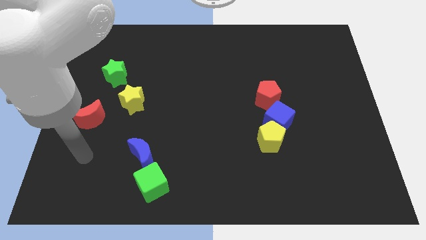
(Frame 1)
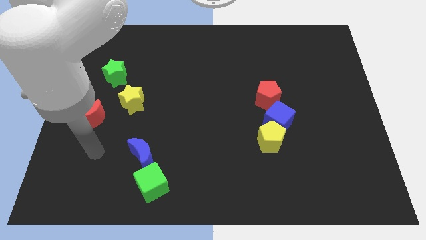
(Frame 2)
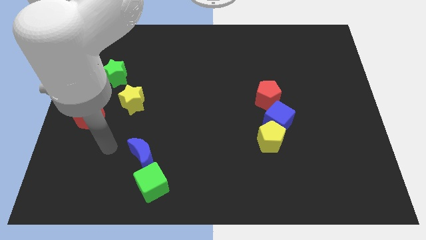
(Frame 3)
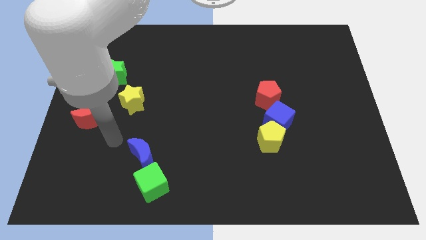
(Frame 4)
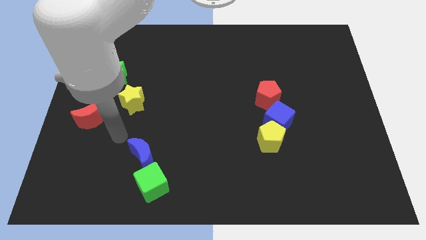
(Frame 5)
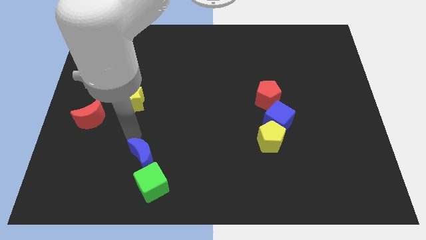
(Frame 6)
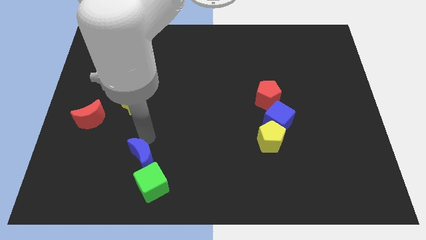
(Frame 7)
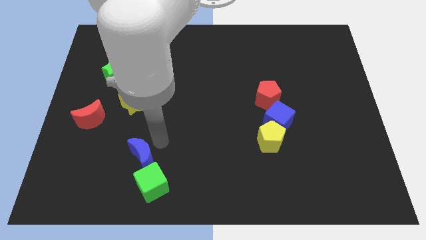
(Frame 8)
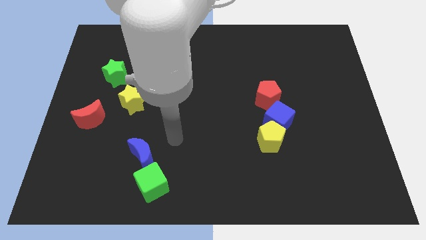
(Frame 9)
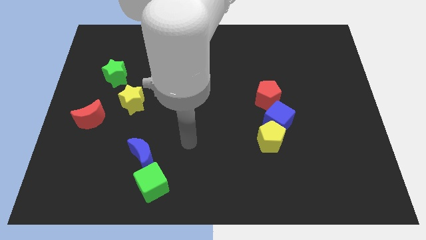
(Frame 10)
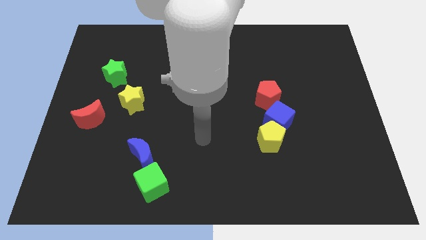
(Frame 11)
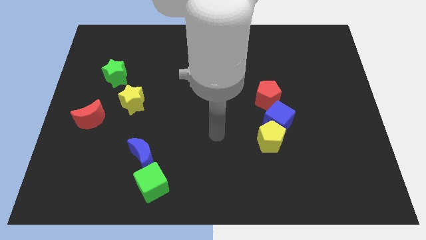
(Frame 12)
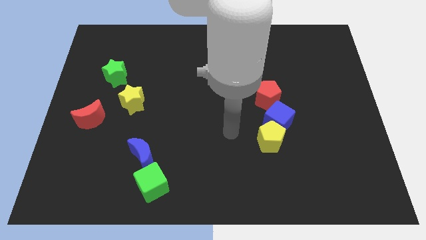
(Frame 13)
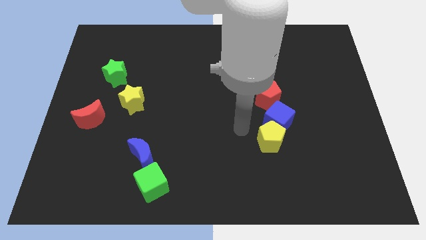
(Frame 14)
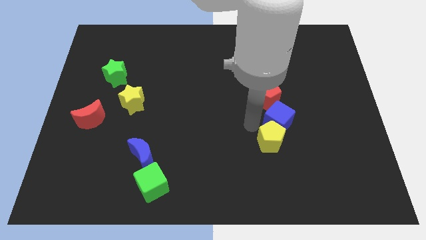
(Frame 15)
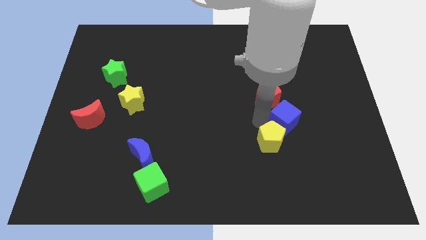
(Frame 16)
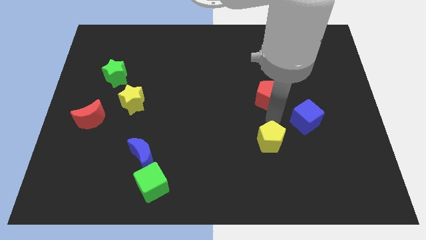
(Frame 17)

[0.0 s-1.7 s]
separate the yellow pentagon from the blue cube

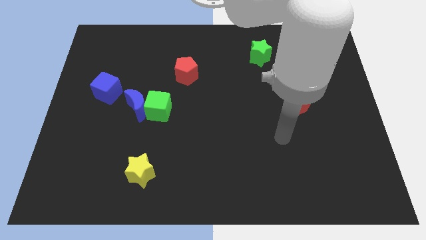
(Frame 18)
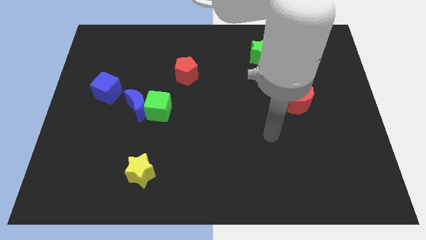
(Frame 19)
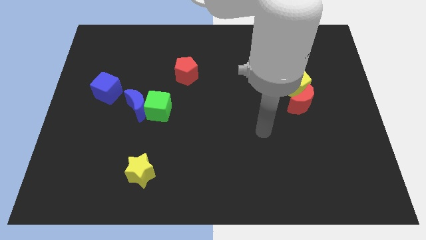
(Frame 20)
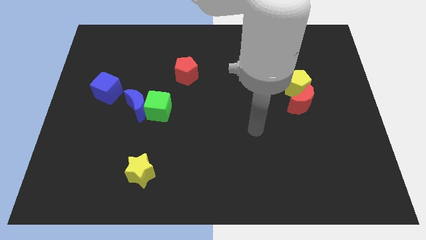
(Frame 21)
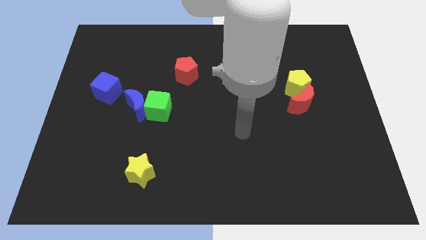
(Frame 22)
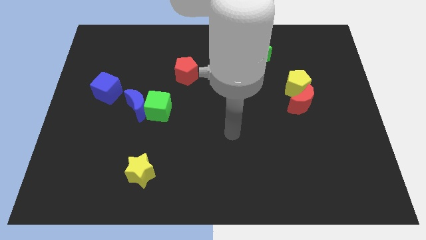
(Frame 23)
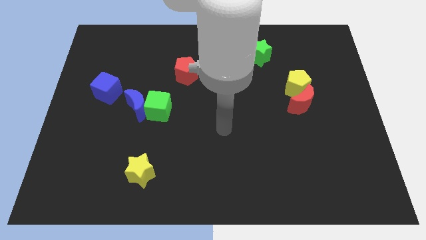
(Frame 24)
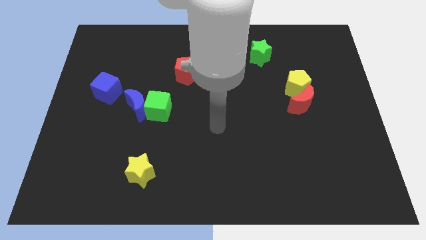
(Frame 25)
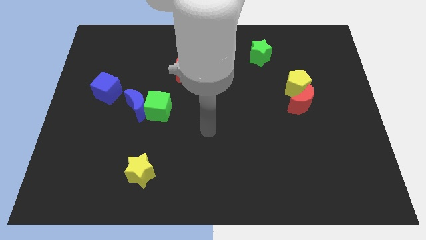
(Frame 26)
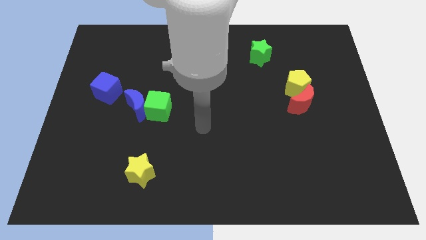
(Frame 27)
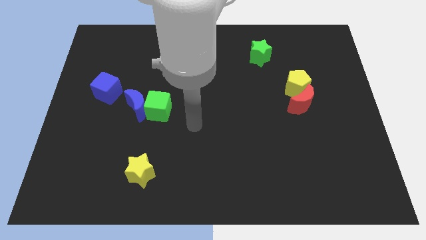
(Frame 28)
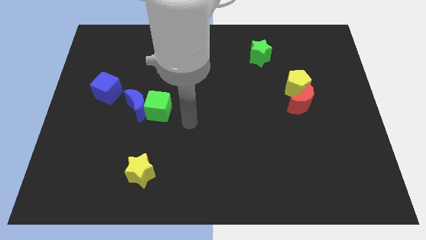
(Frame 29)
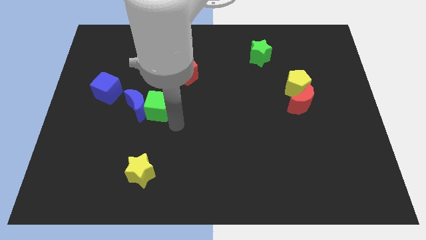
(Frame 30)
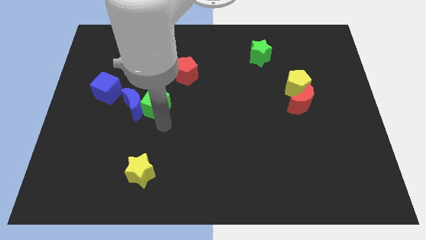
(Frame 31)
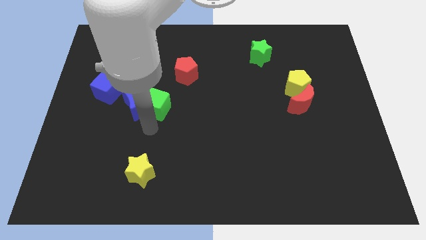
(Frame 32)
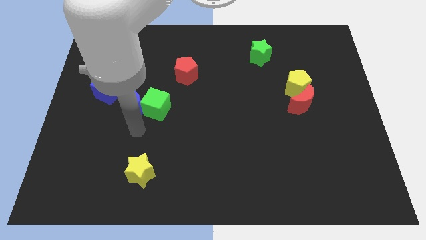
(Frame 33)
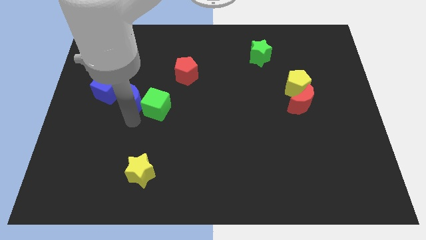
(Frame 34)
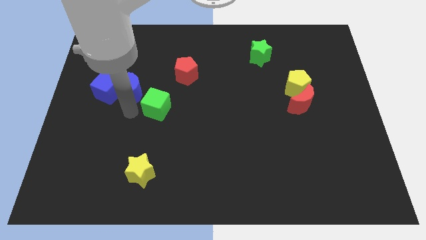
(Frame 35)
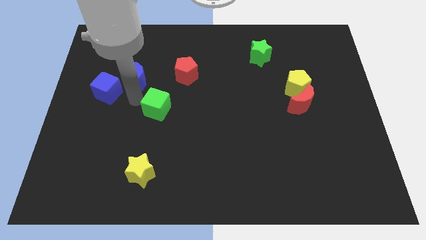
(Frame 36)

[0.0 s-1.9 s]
separate the green cube from the blue moon

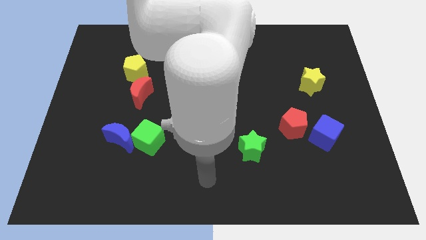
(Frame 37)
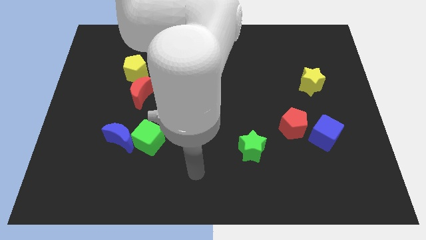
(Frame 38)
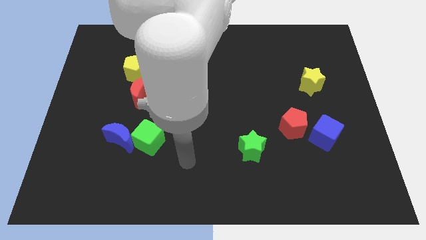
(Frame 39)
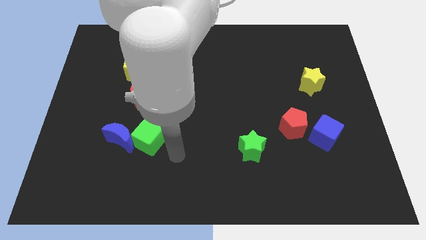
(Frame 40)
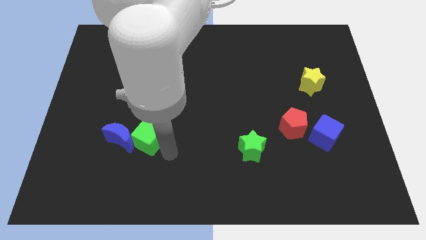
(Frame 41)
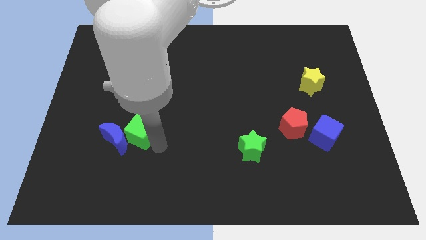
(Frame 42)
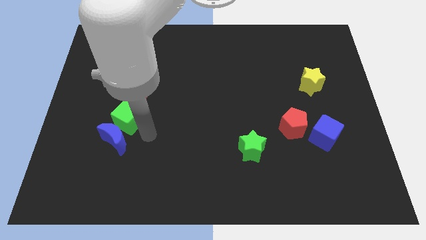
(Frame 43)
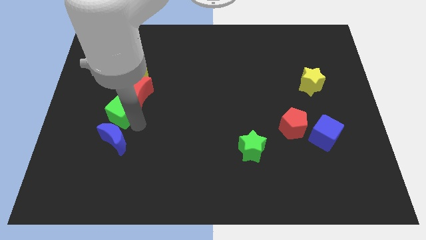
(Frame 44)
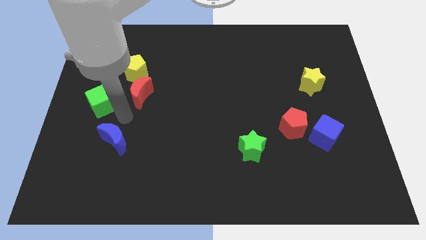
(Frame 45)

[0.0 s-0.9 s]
move the blue moon away from the green cube

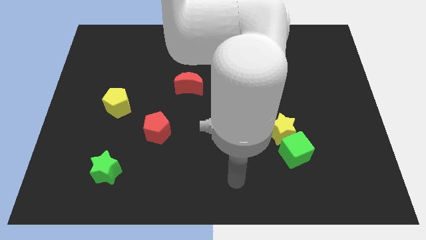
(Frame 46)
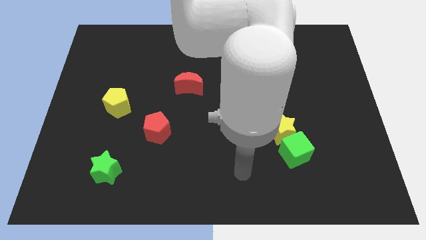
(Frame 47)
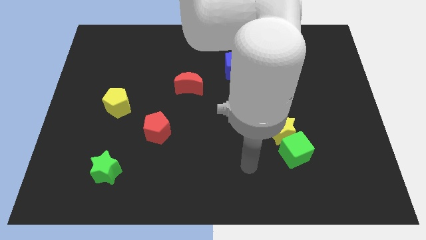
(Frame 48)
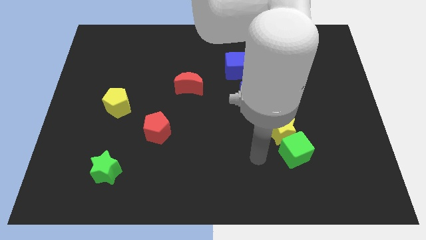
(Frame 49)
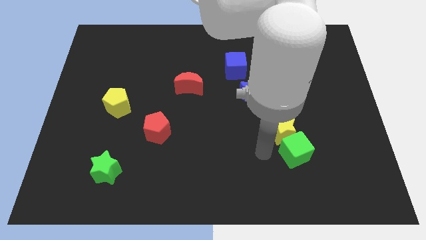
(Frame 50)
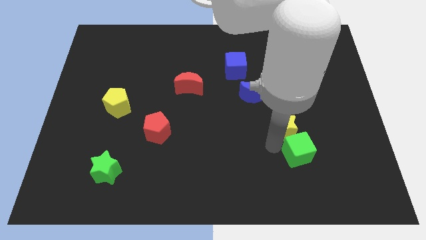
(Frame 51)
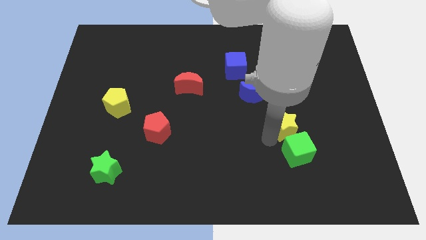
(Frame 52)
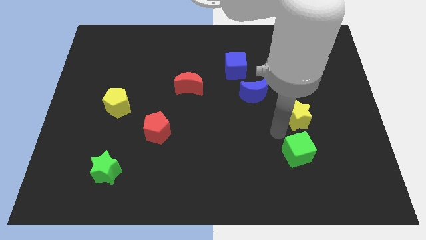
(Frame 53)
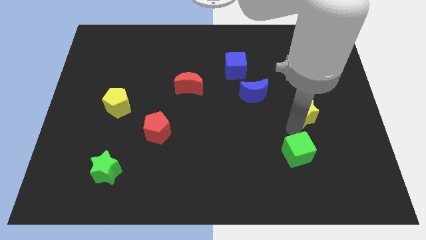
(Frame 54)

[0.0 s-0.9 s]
move the green cube away from the yellow star

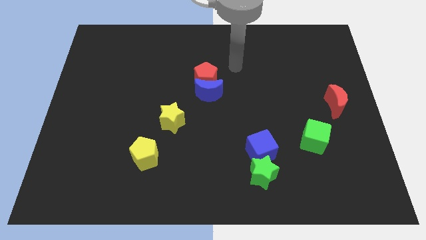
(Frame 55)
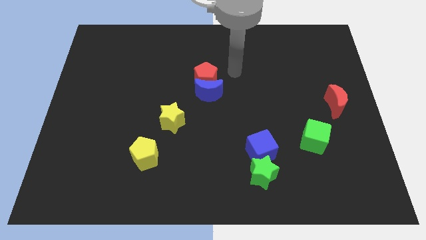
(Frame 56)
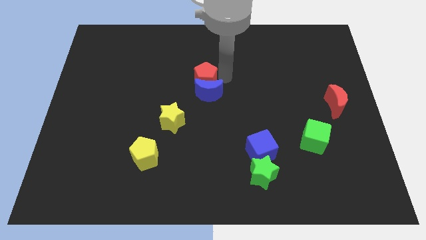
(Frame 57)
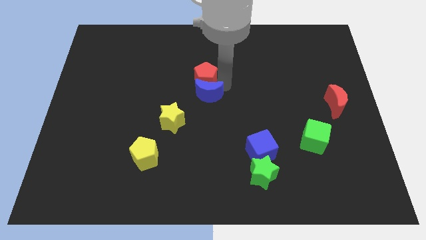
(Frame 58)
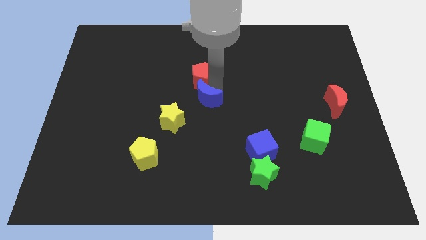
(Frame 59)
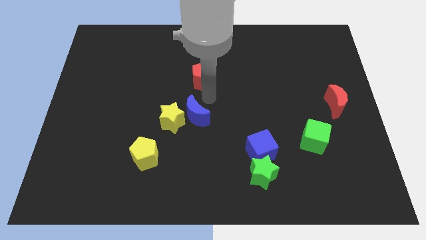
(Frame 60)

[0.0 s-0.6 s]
move the red pentagon away from the blue moon

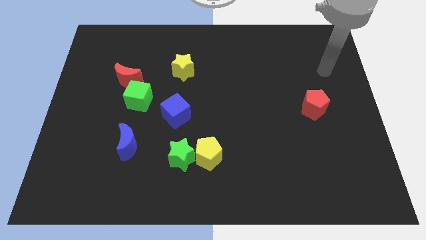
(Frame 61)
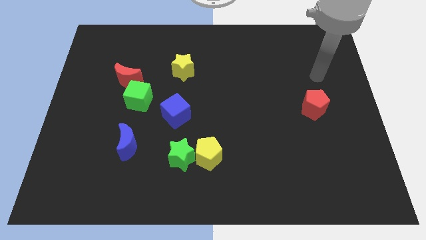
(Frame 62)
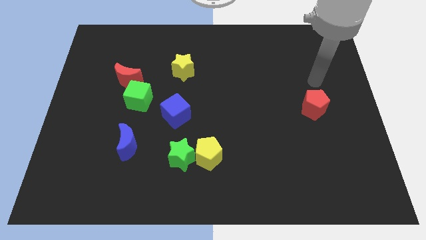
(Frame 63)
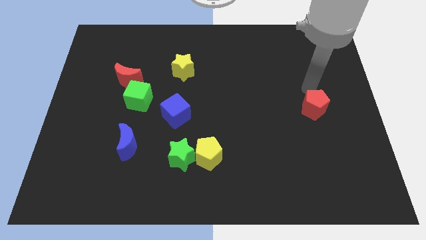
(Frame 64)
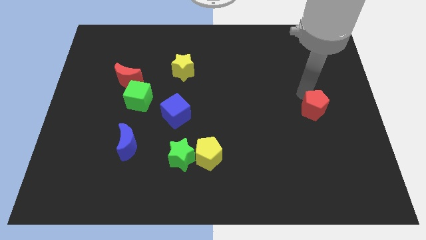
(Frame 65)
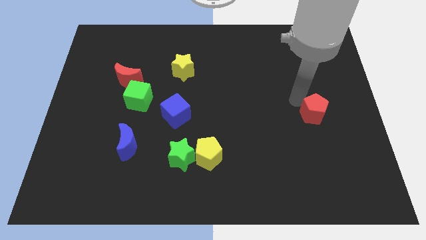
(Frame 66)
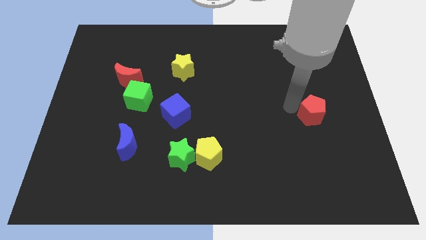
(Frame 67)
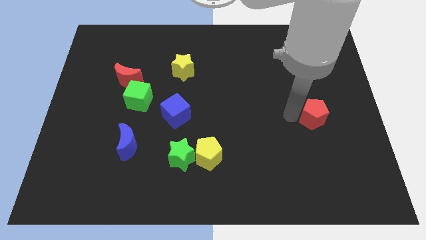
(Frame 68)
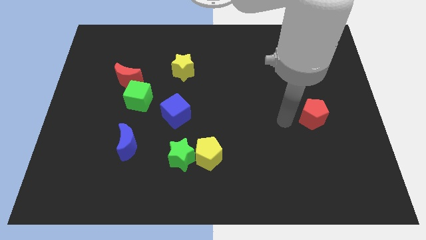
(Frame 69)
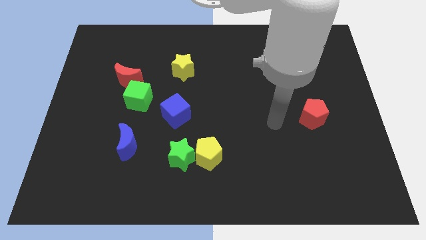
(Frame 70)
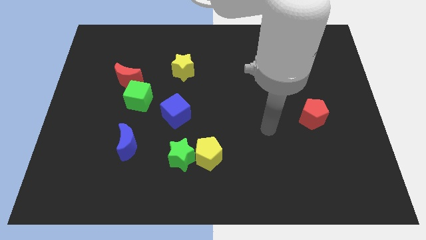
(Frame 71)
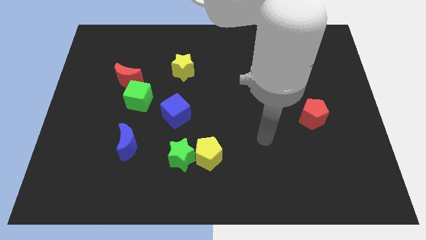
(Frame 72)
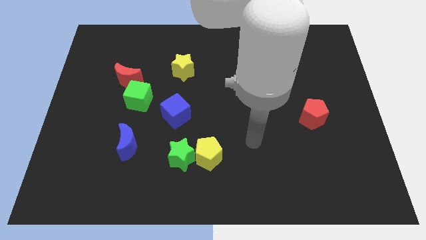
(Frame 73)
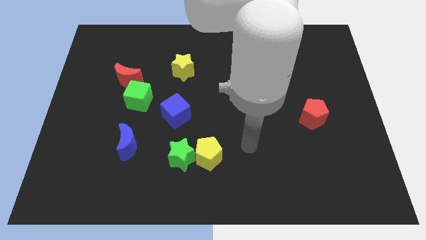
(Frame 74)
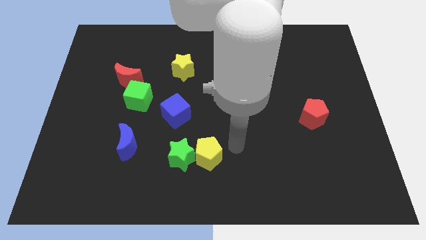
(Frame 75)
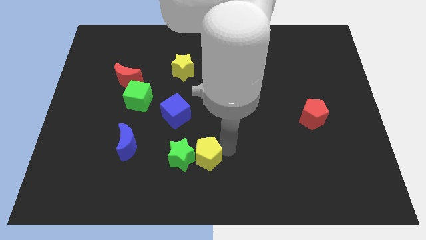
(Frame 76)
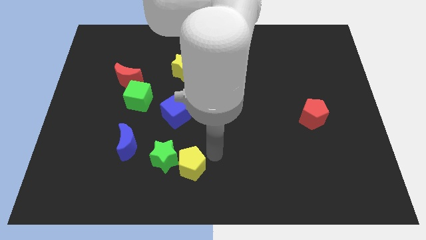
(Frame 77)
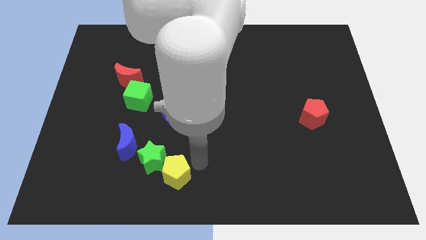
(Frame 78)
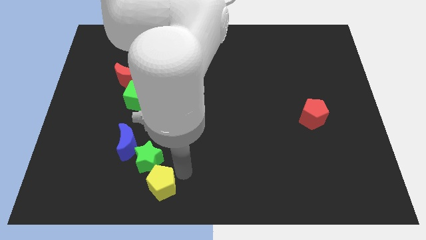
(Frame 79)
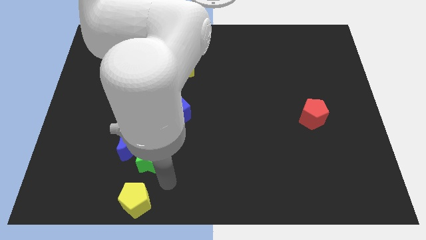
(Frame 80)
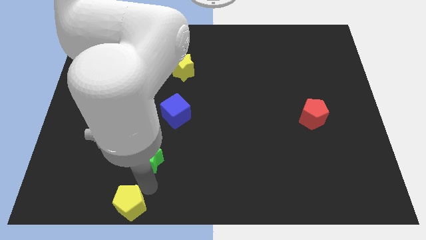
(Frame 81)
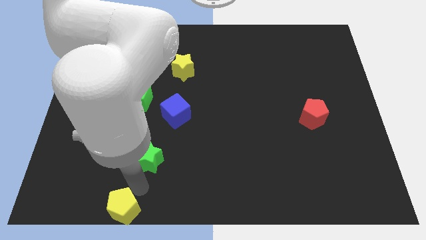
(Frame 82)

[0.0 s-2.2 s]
separate the green star from the yellow pentagon

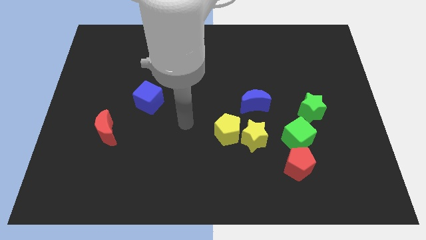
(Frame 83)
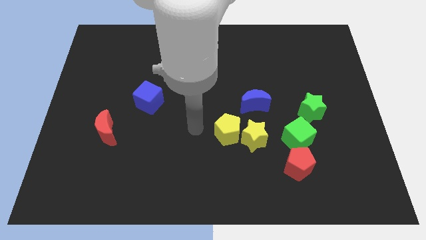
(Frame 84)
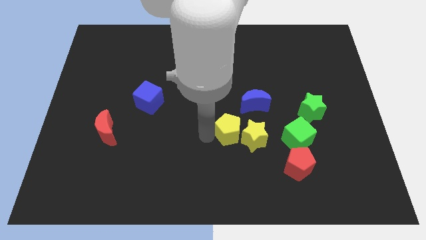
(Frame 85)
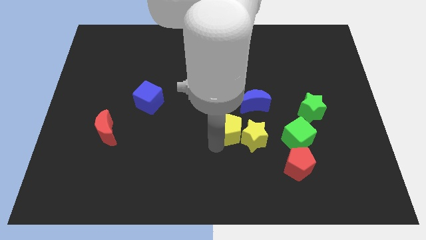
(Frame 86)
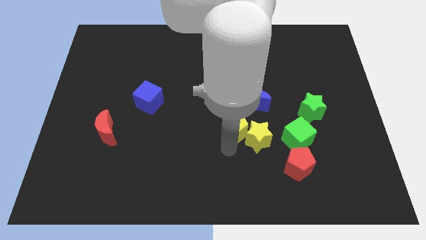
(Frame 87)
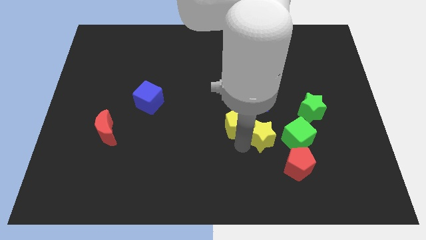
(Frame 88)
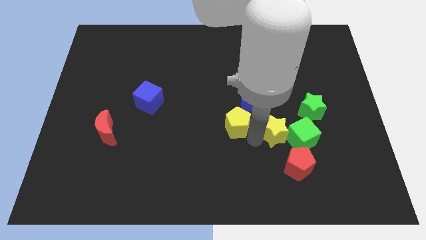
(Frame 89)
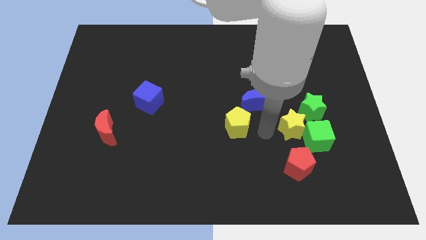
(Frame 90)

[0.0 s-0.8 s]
move the yellow pentagon away from the yellow star

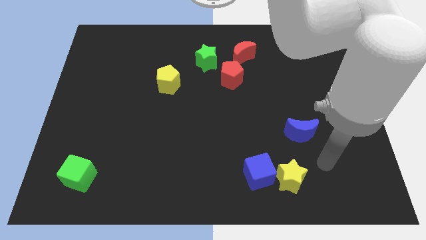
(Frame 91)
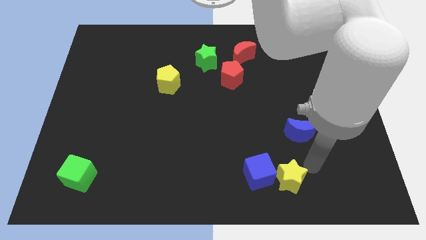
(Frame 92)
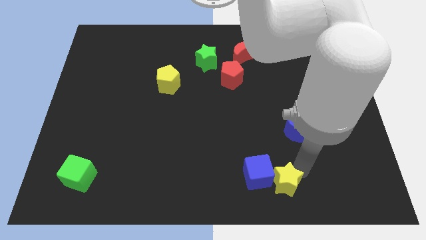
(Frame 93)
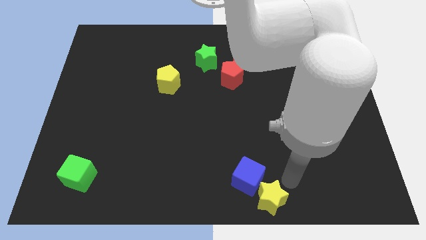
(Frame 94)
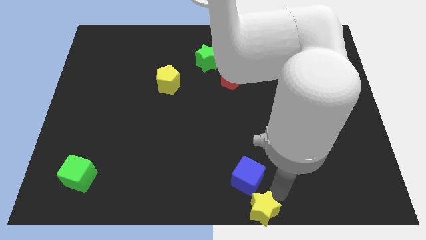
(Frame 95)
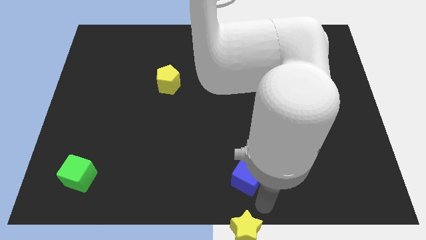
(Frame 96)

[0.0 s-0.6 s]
pull the blue cube apart from the yellow star
